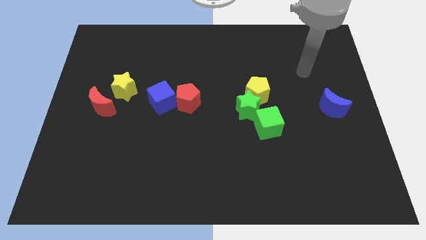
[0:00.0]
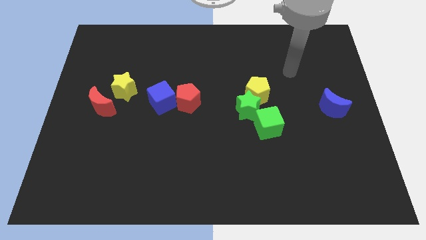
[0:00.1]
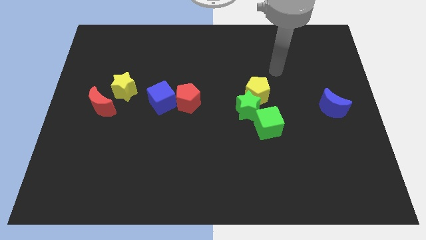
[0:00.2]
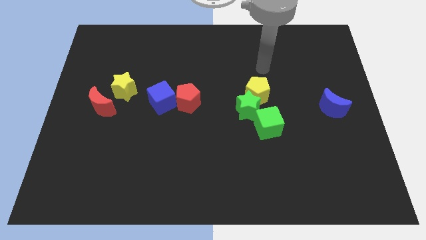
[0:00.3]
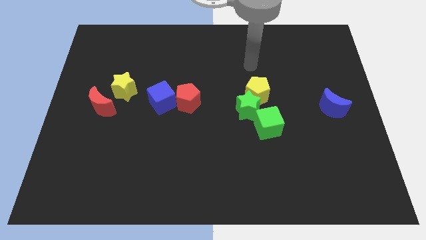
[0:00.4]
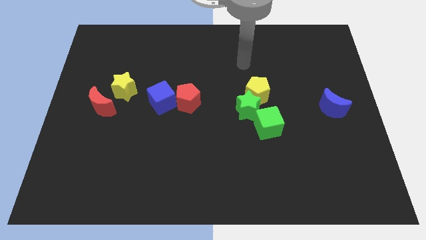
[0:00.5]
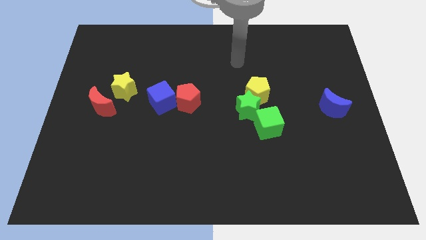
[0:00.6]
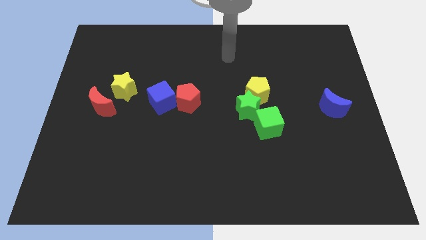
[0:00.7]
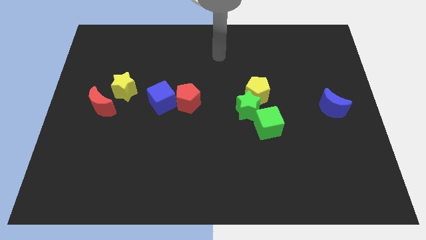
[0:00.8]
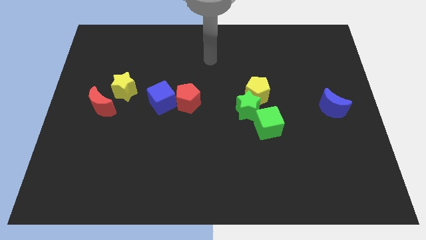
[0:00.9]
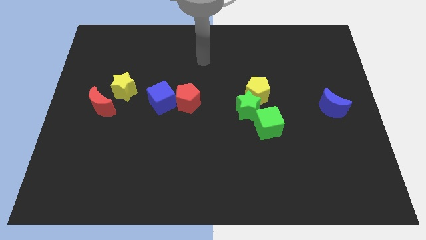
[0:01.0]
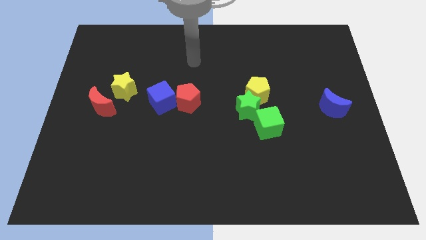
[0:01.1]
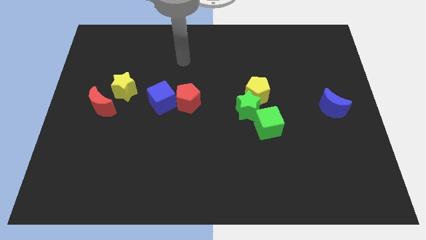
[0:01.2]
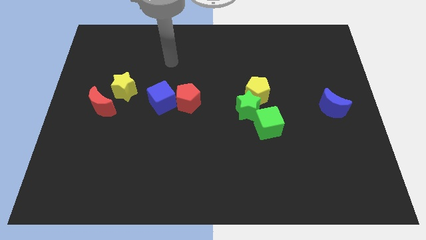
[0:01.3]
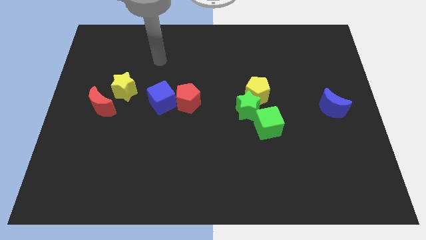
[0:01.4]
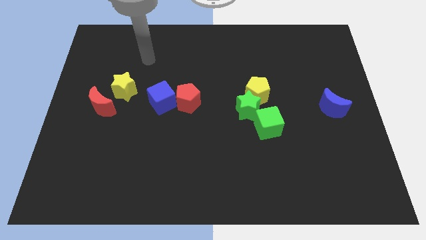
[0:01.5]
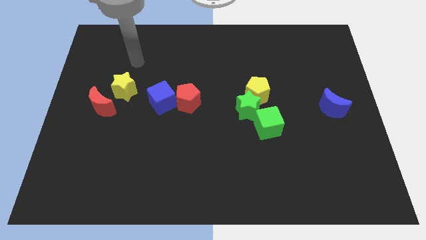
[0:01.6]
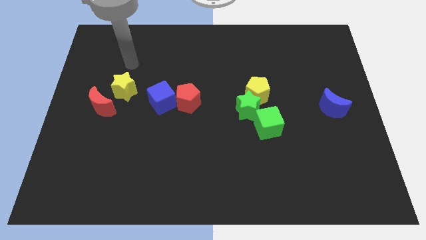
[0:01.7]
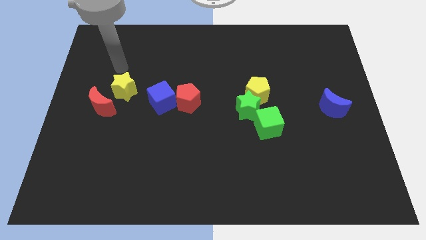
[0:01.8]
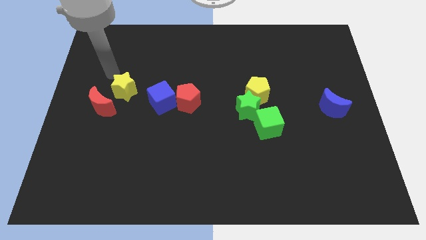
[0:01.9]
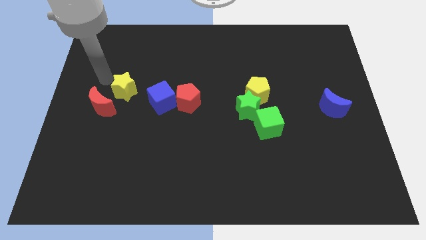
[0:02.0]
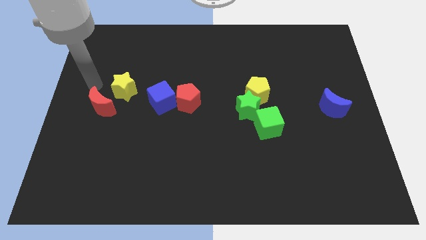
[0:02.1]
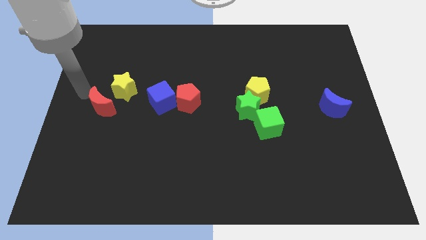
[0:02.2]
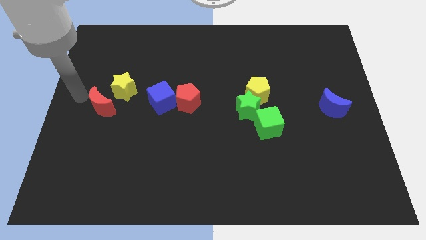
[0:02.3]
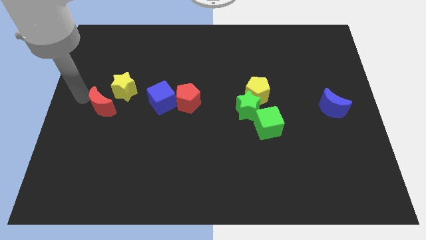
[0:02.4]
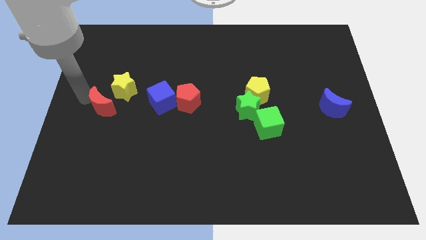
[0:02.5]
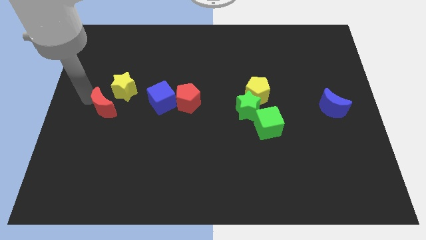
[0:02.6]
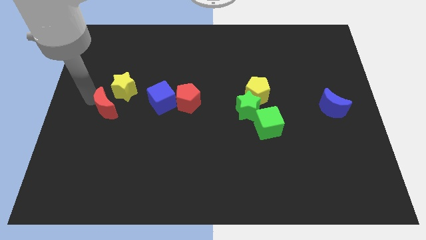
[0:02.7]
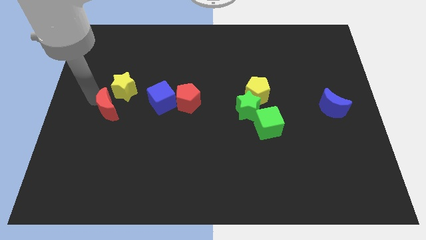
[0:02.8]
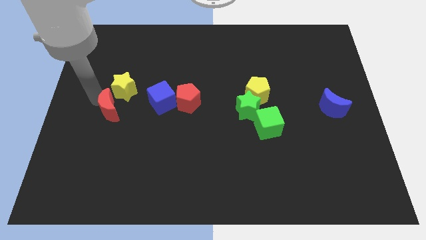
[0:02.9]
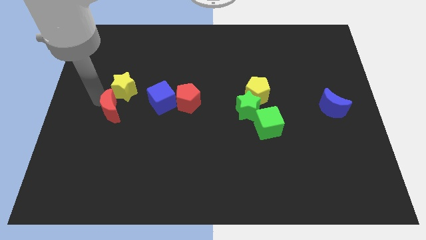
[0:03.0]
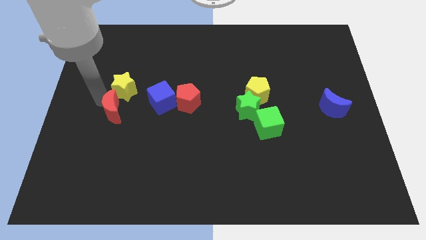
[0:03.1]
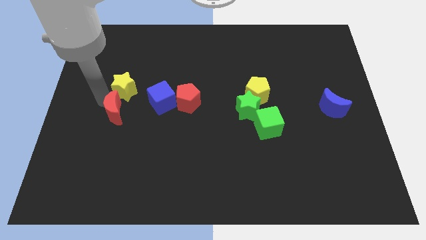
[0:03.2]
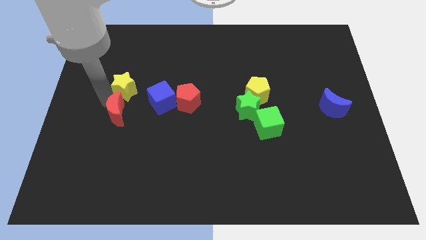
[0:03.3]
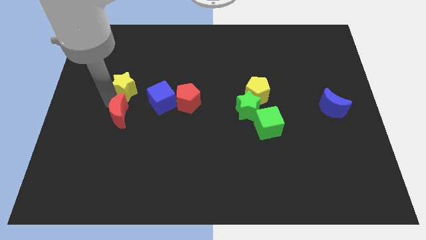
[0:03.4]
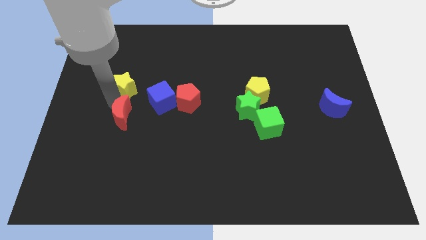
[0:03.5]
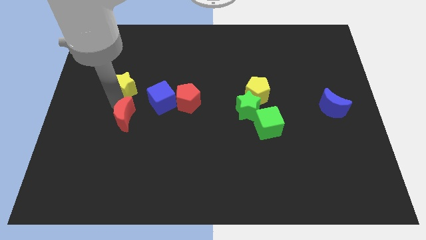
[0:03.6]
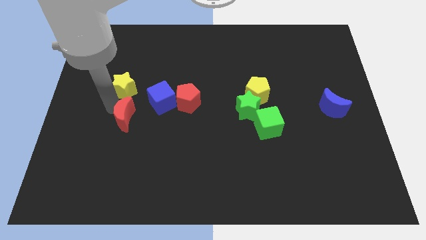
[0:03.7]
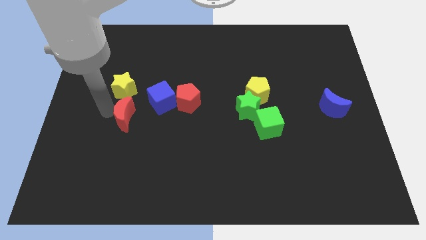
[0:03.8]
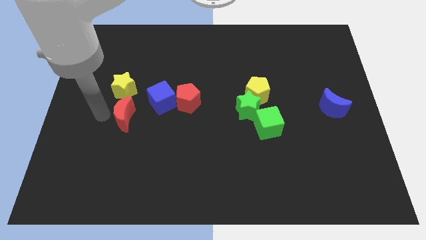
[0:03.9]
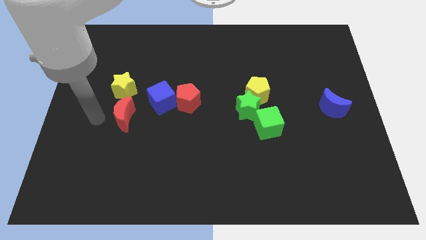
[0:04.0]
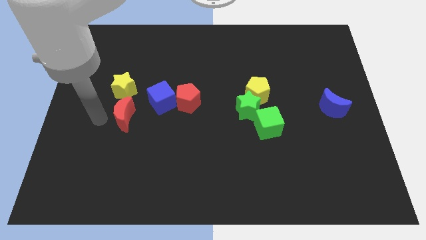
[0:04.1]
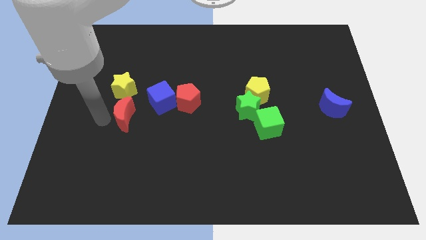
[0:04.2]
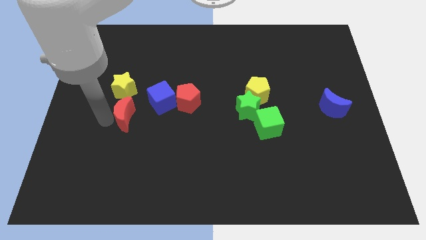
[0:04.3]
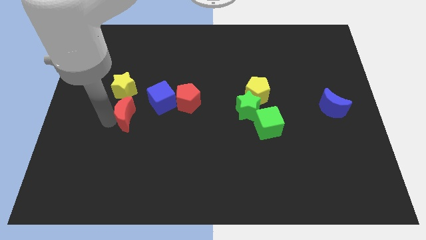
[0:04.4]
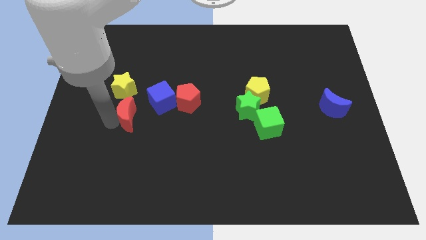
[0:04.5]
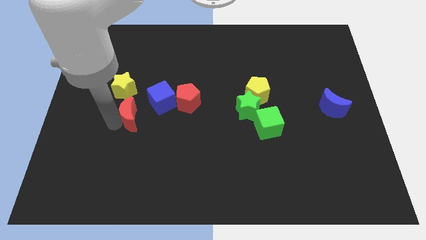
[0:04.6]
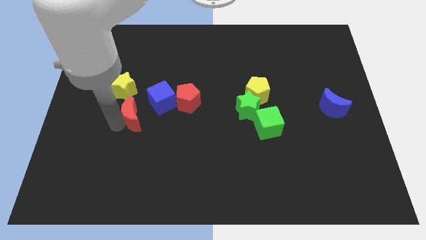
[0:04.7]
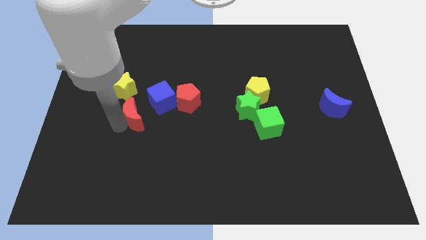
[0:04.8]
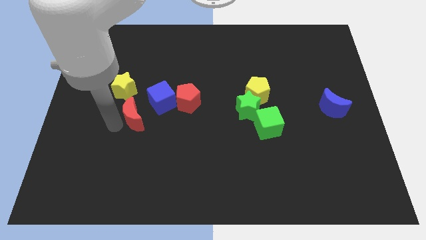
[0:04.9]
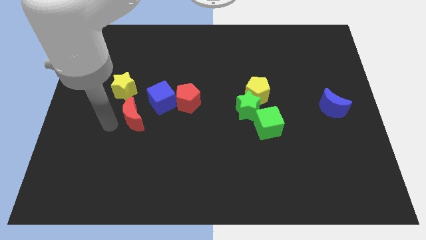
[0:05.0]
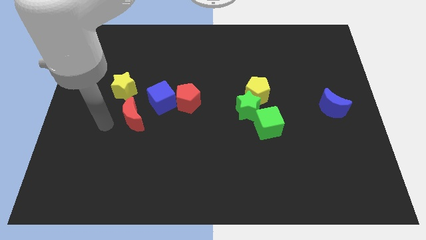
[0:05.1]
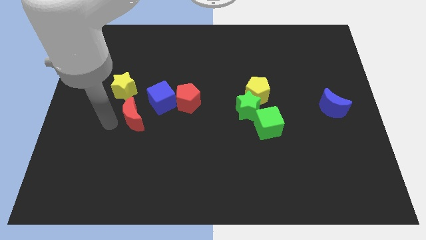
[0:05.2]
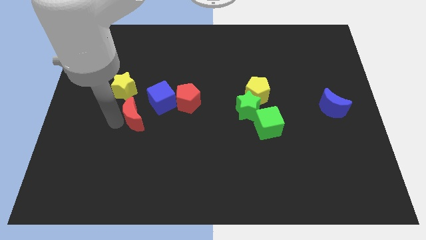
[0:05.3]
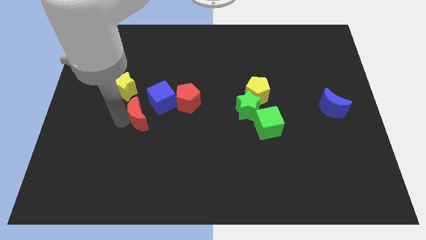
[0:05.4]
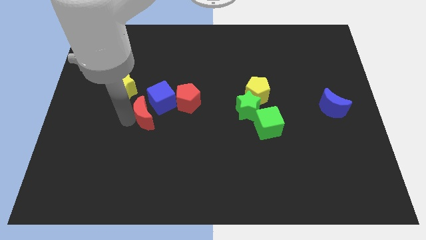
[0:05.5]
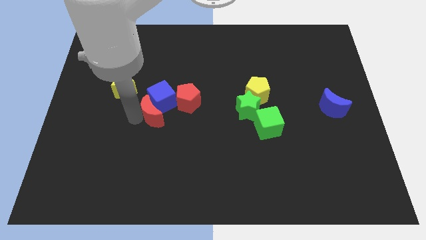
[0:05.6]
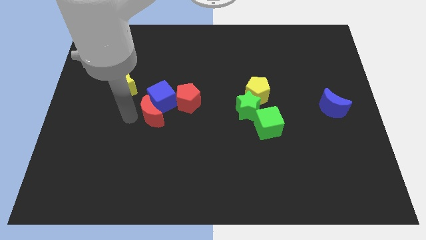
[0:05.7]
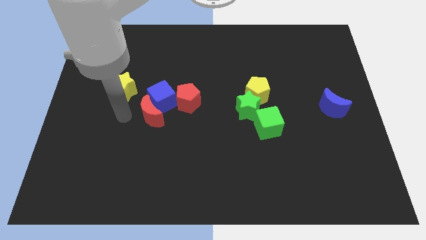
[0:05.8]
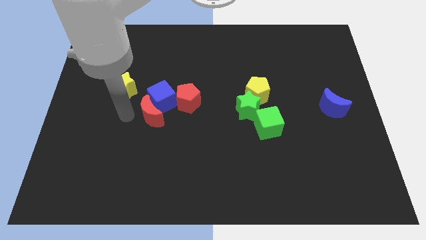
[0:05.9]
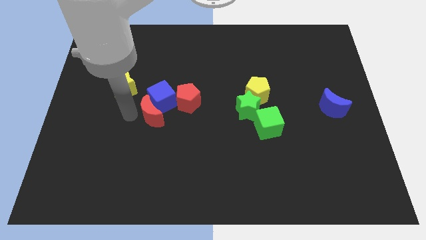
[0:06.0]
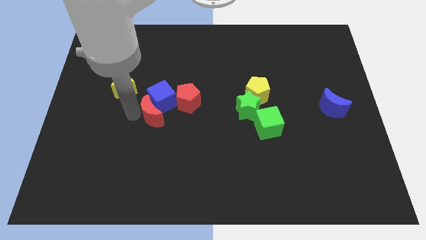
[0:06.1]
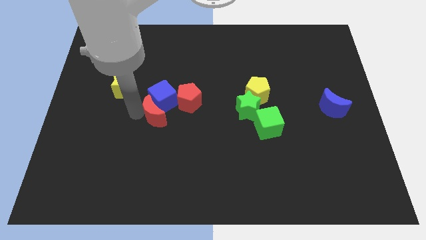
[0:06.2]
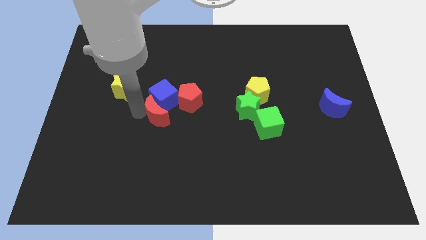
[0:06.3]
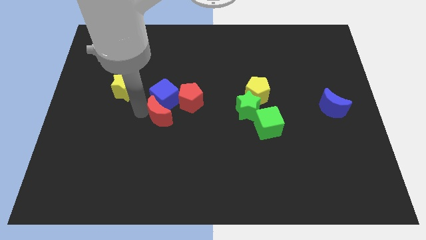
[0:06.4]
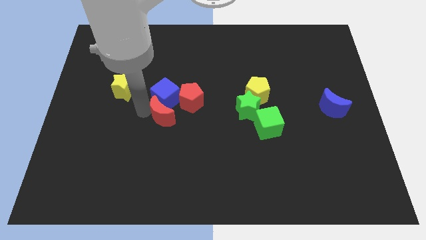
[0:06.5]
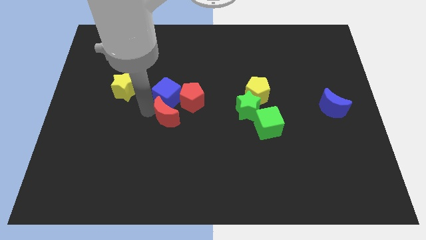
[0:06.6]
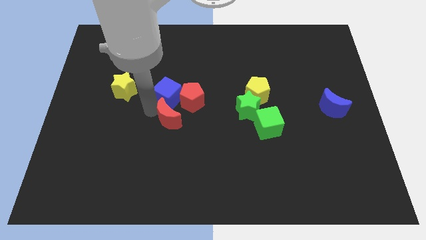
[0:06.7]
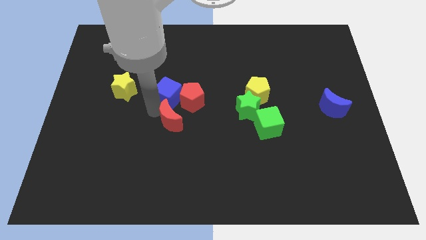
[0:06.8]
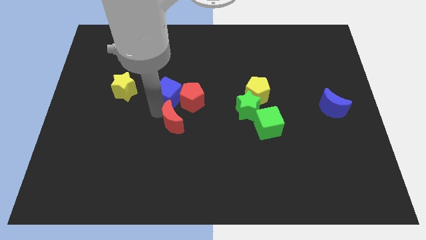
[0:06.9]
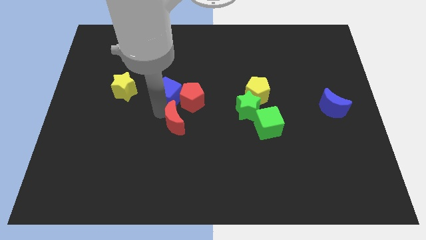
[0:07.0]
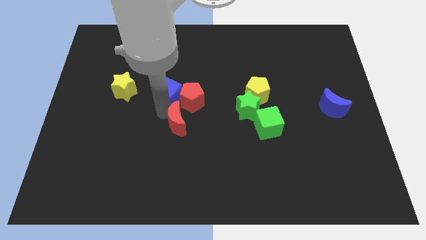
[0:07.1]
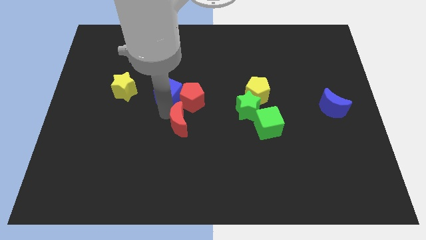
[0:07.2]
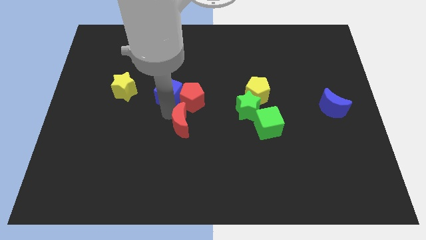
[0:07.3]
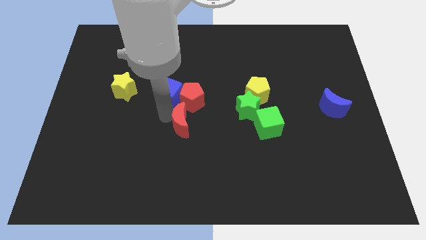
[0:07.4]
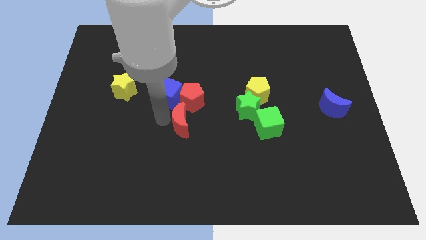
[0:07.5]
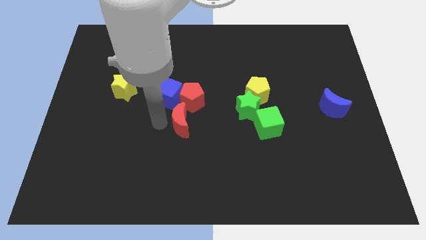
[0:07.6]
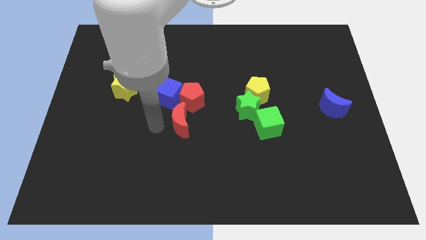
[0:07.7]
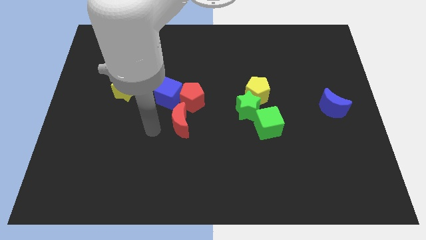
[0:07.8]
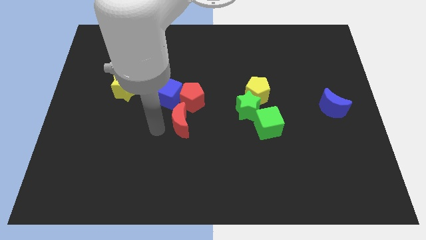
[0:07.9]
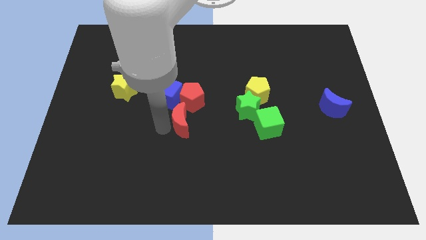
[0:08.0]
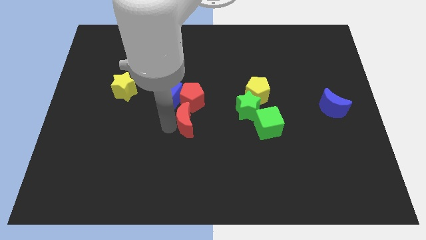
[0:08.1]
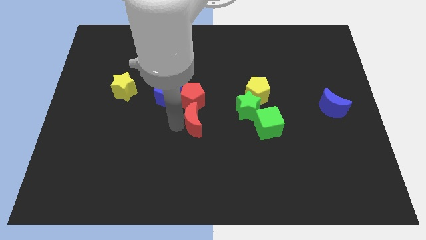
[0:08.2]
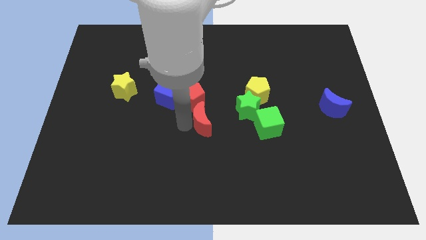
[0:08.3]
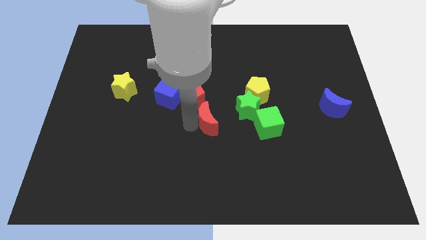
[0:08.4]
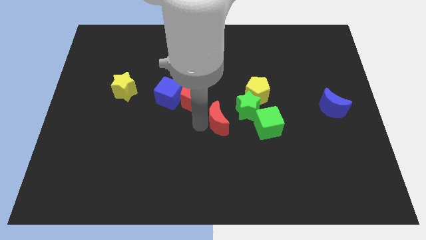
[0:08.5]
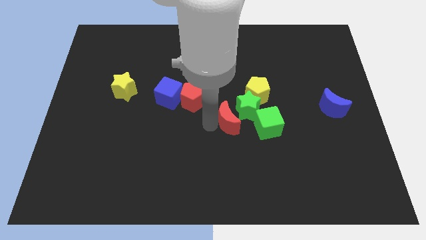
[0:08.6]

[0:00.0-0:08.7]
move the red moon to the green star
